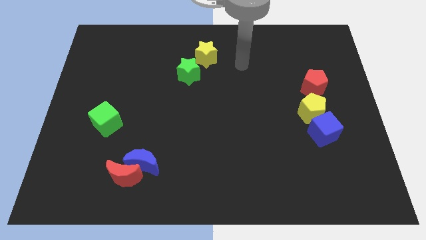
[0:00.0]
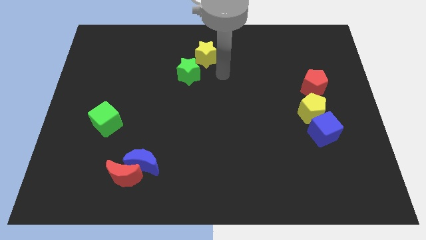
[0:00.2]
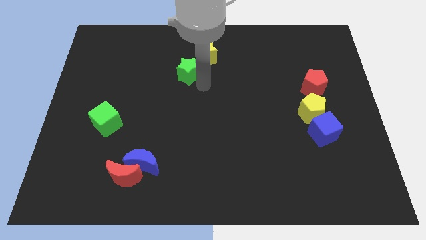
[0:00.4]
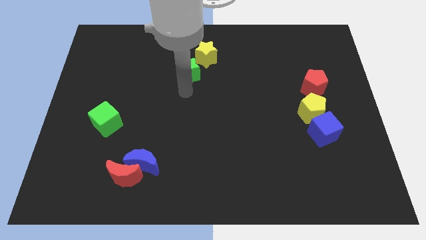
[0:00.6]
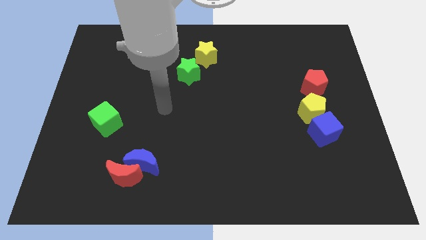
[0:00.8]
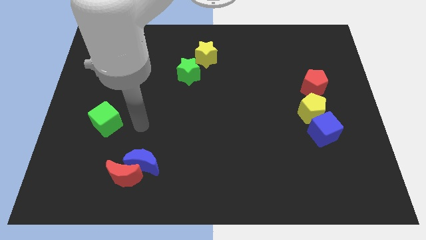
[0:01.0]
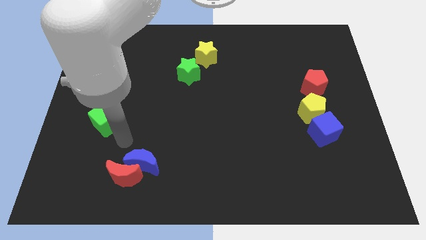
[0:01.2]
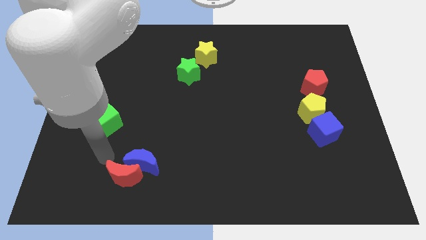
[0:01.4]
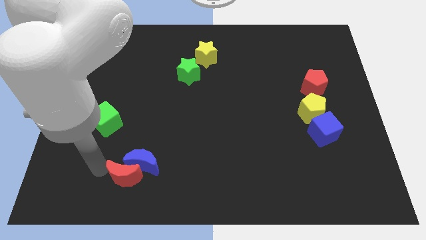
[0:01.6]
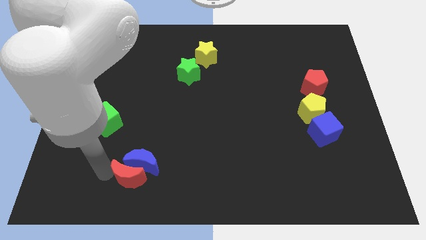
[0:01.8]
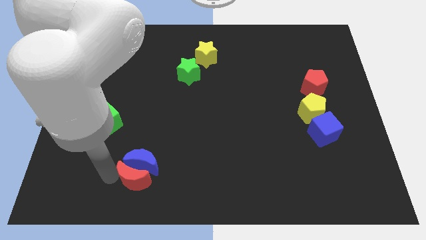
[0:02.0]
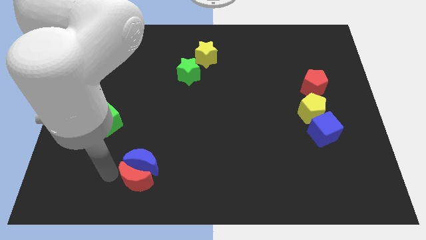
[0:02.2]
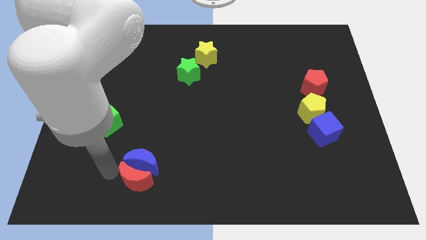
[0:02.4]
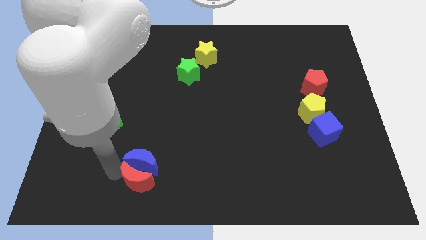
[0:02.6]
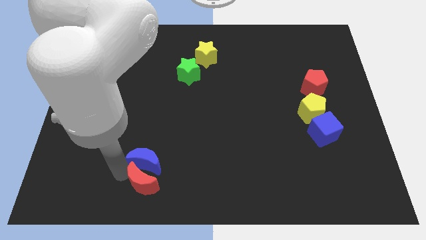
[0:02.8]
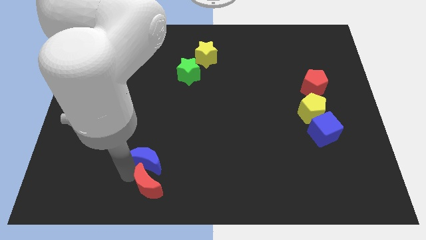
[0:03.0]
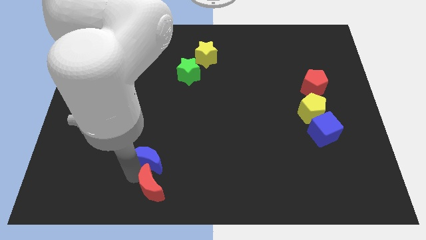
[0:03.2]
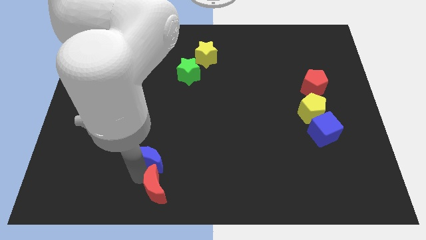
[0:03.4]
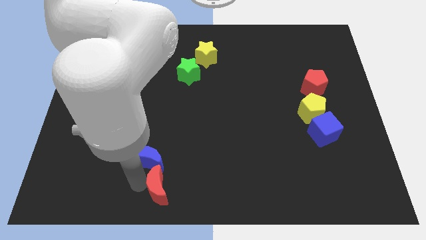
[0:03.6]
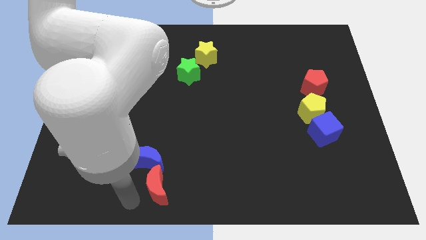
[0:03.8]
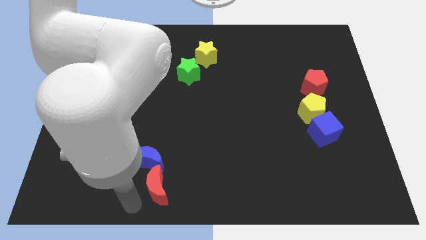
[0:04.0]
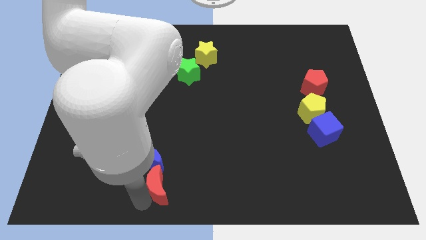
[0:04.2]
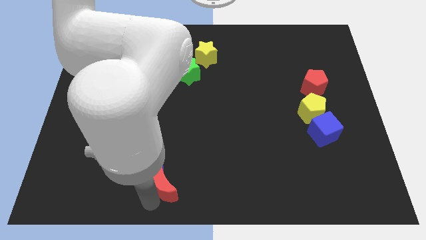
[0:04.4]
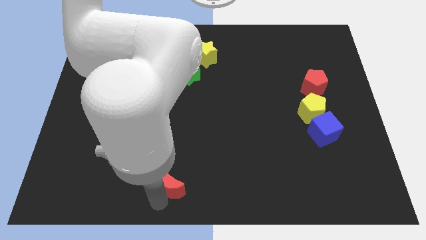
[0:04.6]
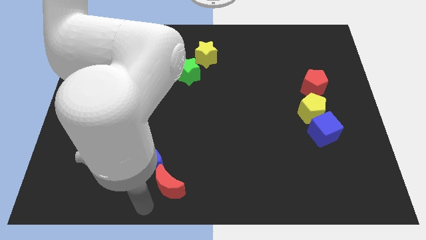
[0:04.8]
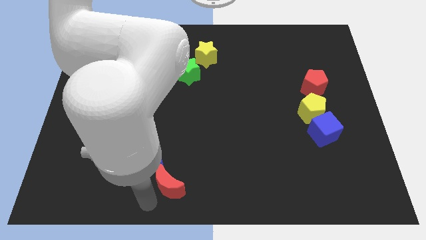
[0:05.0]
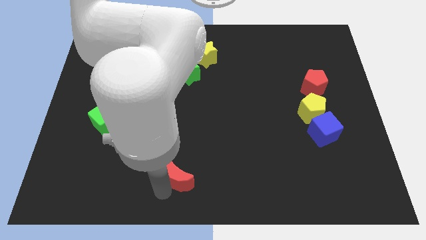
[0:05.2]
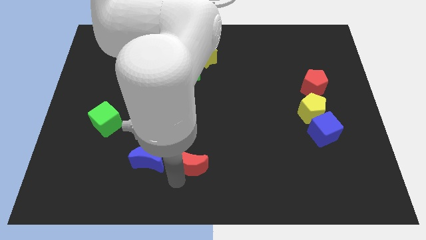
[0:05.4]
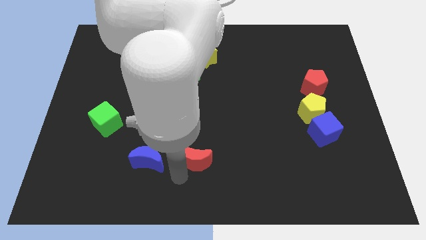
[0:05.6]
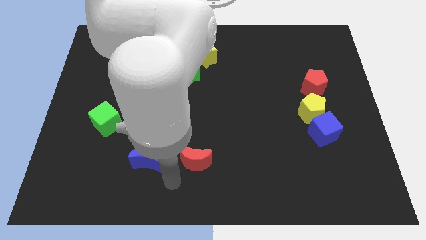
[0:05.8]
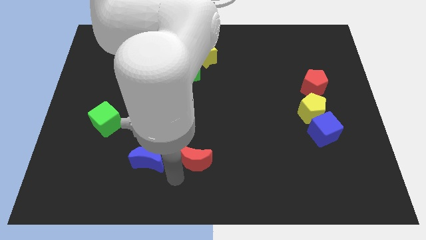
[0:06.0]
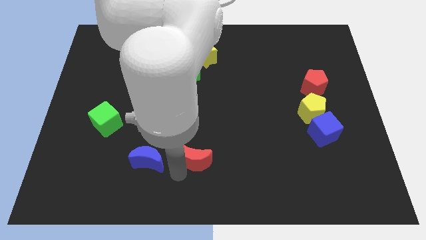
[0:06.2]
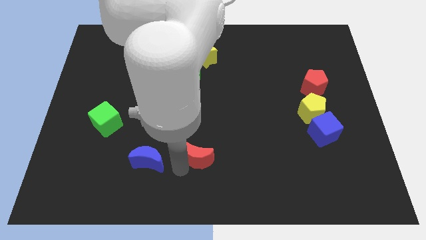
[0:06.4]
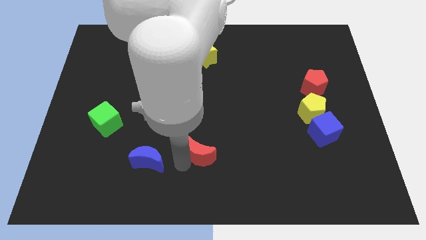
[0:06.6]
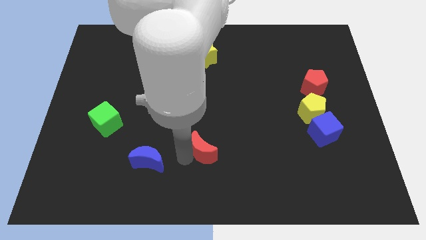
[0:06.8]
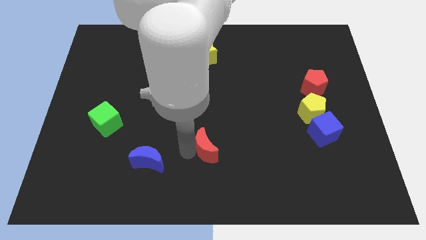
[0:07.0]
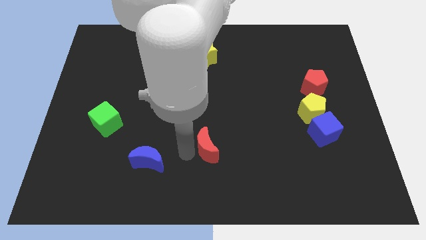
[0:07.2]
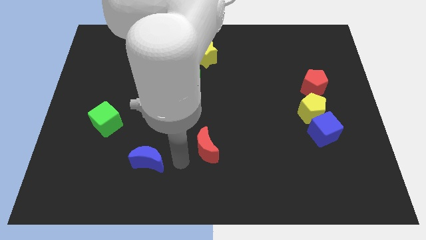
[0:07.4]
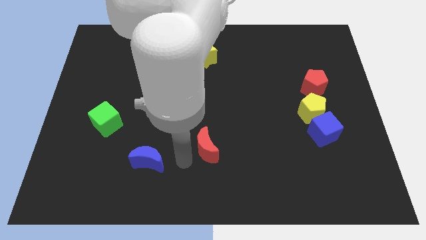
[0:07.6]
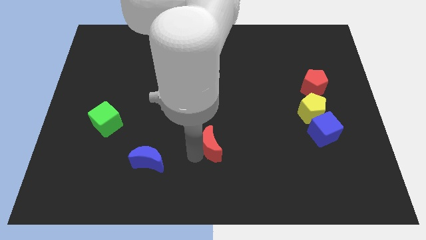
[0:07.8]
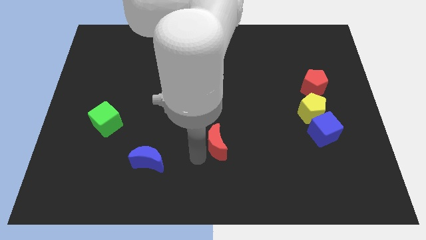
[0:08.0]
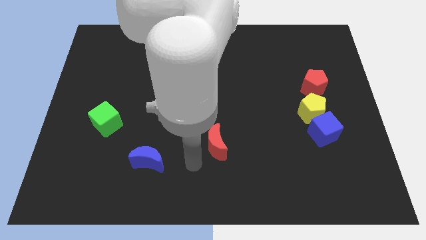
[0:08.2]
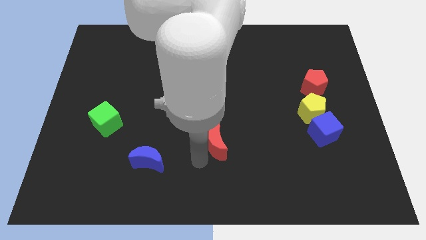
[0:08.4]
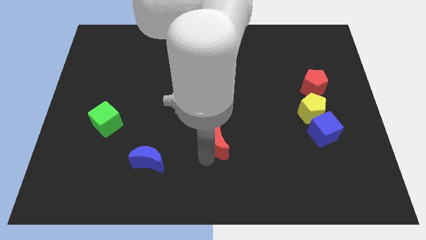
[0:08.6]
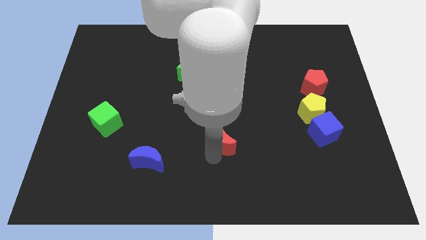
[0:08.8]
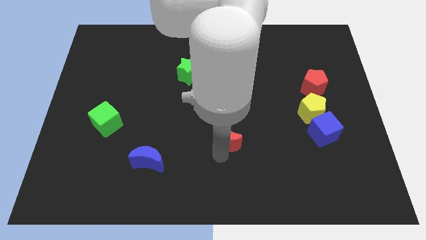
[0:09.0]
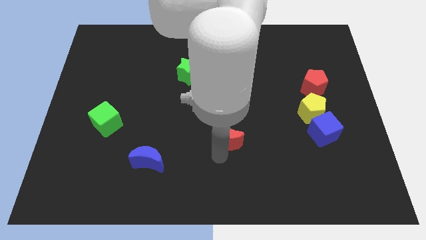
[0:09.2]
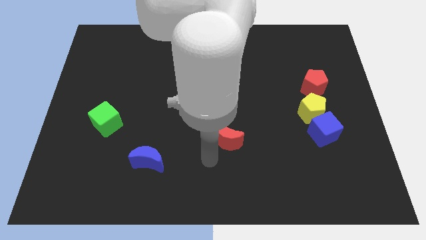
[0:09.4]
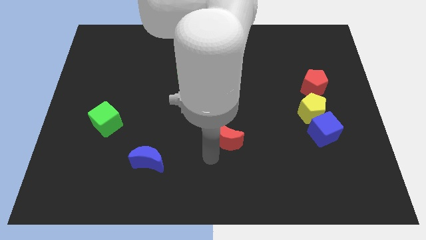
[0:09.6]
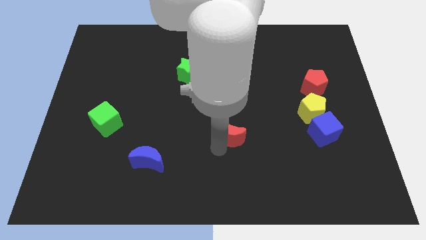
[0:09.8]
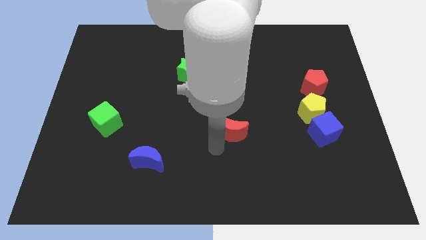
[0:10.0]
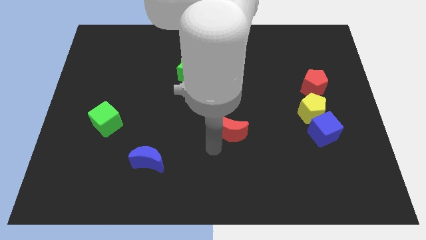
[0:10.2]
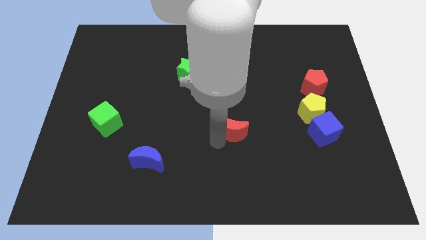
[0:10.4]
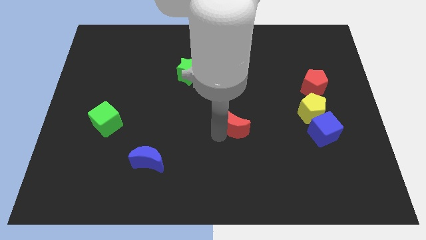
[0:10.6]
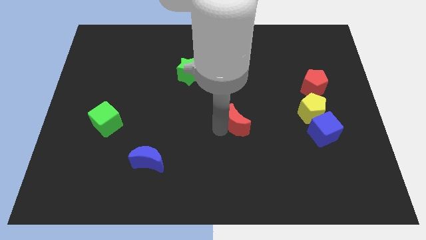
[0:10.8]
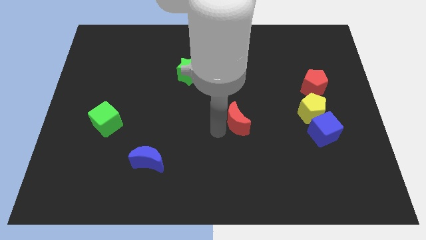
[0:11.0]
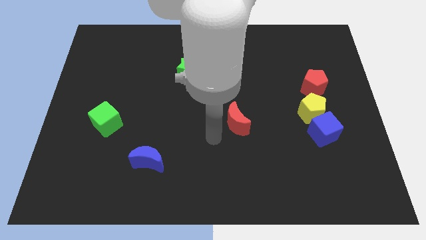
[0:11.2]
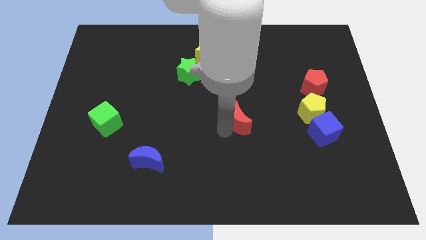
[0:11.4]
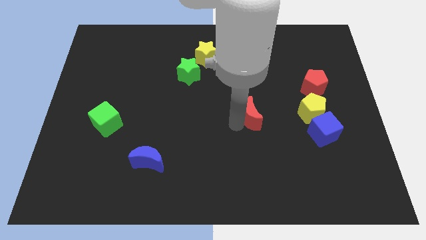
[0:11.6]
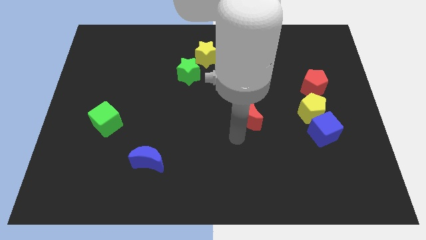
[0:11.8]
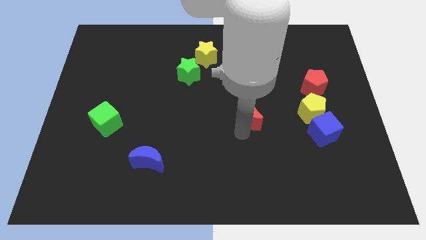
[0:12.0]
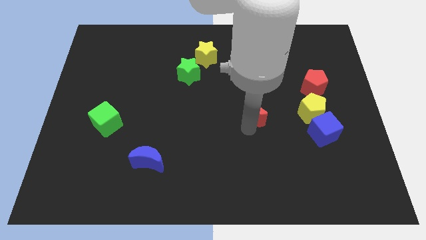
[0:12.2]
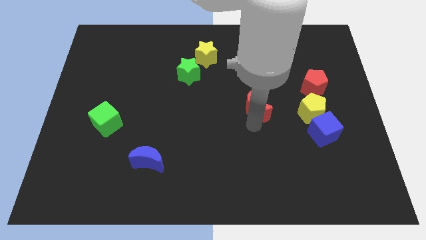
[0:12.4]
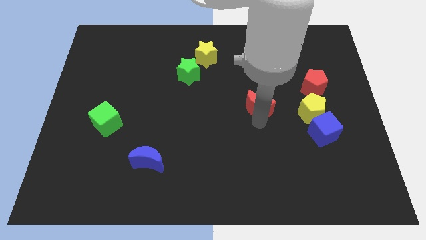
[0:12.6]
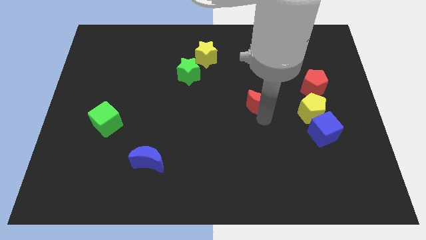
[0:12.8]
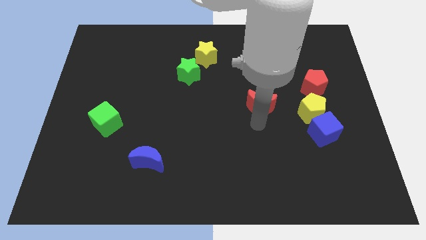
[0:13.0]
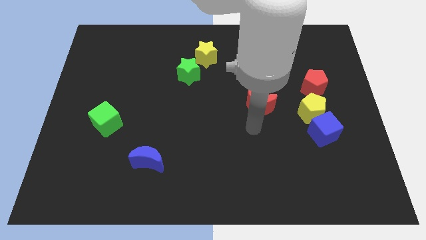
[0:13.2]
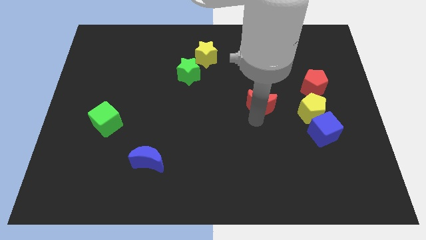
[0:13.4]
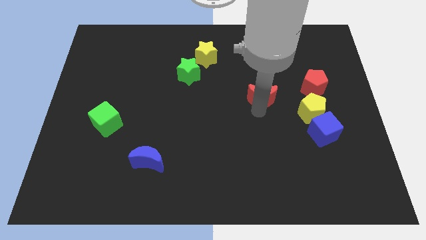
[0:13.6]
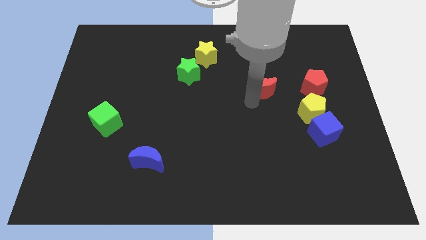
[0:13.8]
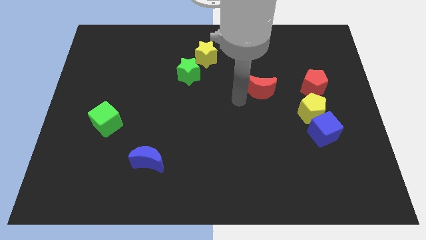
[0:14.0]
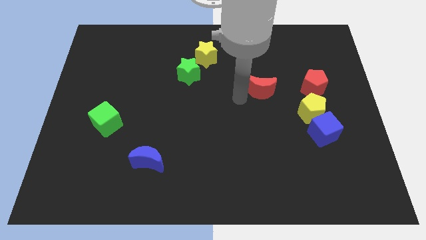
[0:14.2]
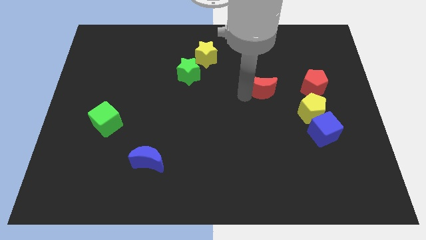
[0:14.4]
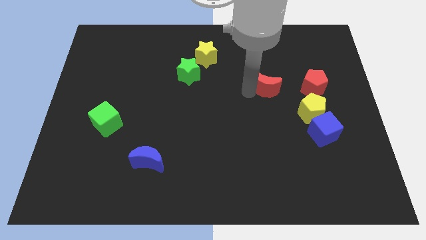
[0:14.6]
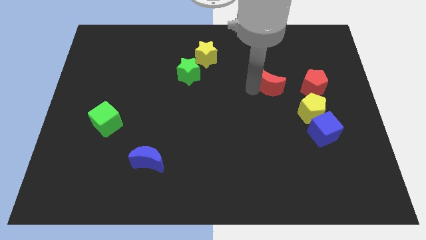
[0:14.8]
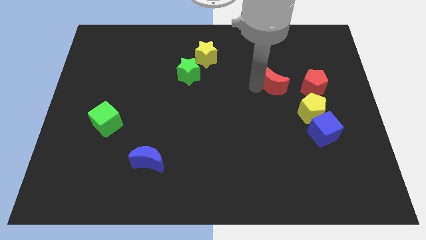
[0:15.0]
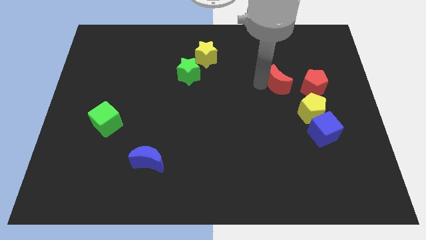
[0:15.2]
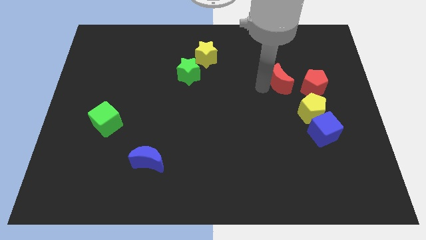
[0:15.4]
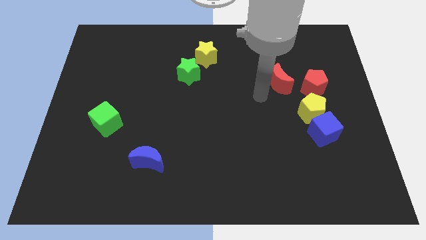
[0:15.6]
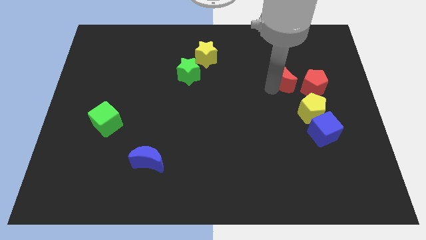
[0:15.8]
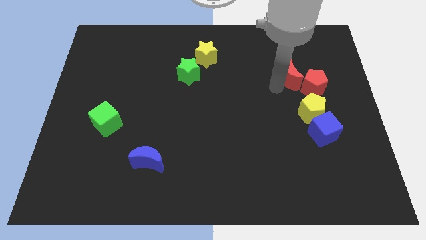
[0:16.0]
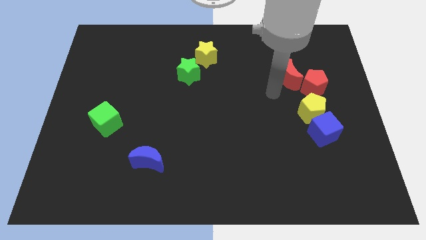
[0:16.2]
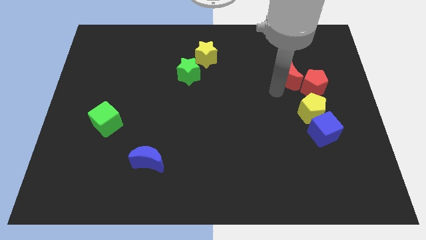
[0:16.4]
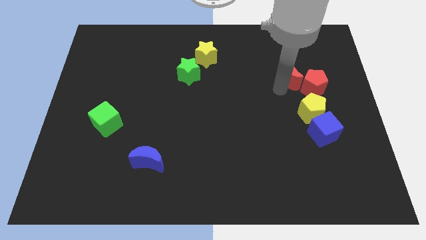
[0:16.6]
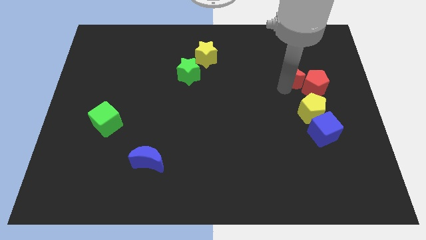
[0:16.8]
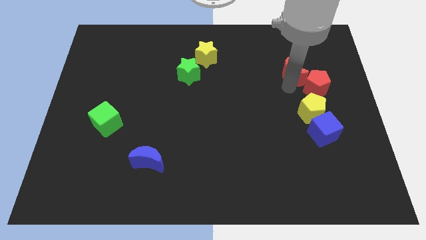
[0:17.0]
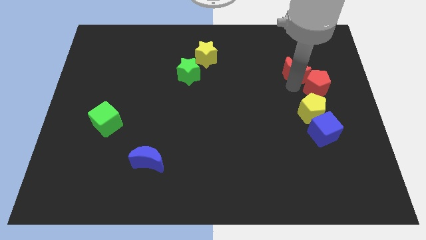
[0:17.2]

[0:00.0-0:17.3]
put the red moon to the top side of the red pentagon
